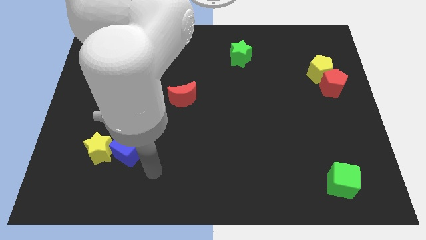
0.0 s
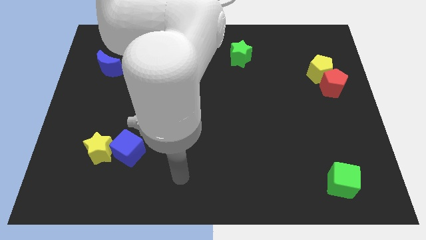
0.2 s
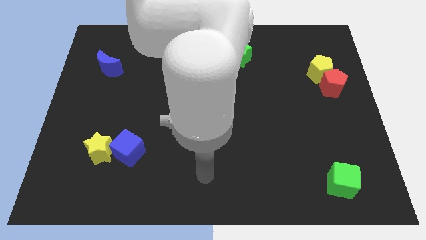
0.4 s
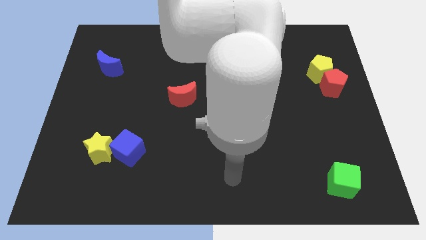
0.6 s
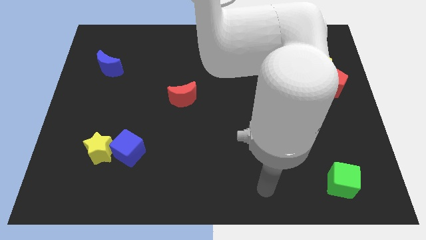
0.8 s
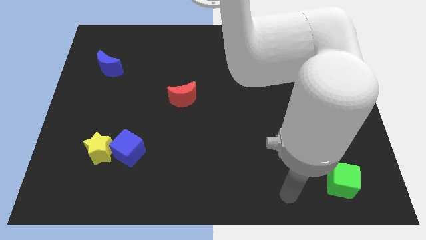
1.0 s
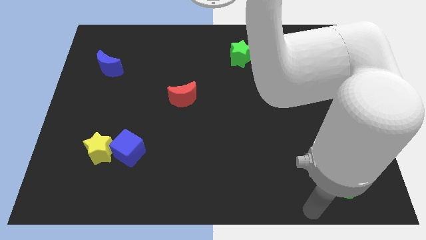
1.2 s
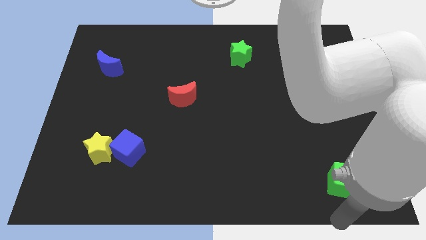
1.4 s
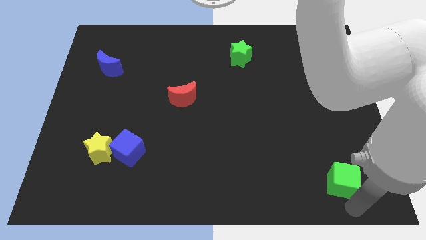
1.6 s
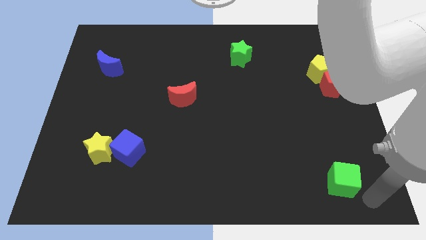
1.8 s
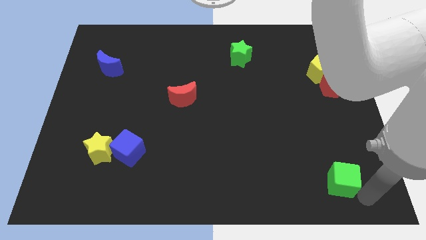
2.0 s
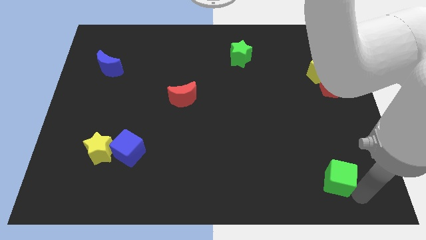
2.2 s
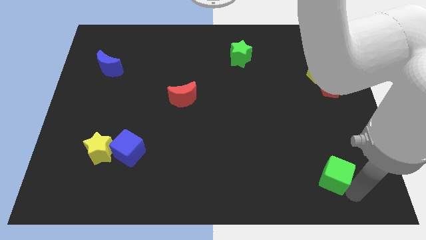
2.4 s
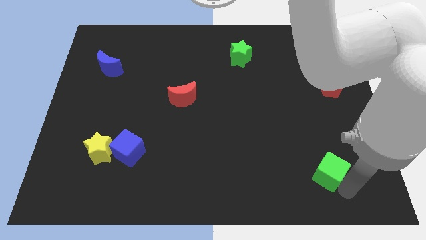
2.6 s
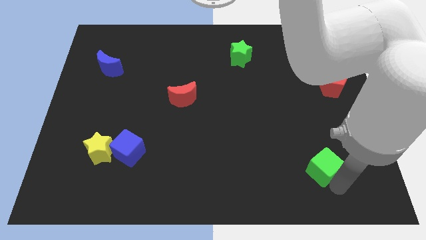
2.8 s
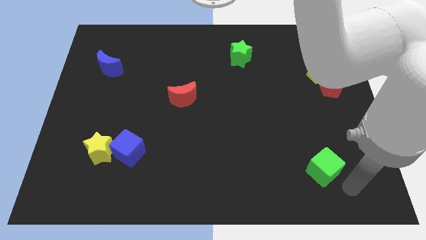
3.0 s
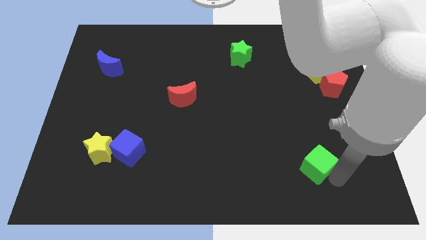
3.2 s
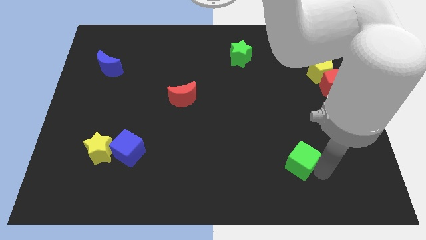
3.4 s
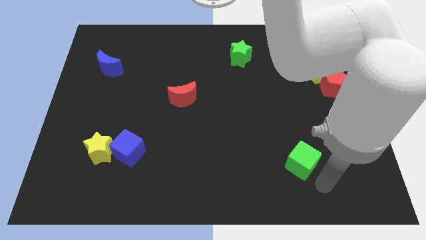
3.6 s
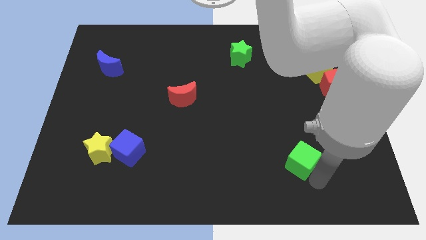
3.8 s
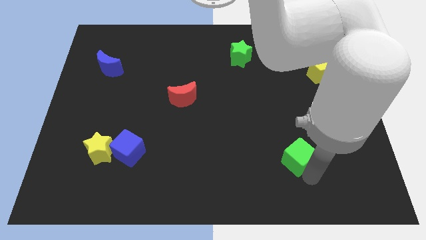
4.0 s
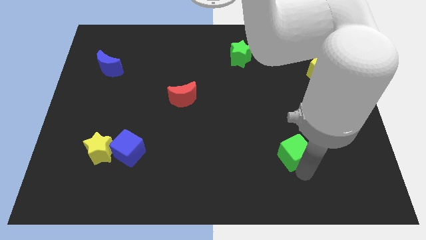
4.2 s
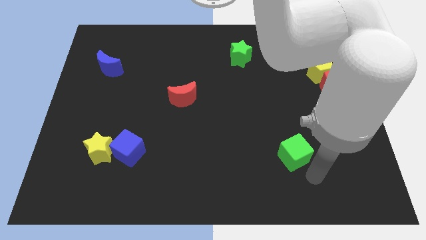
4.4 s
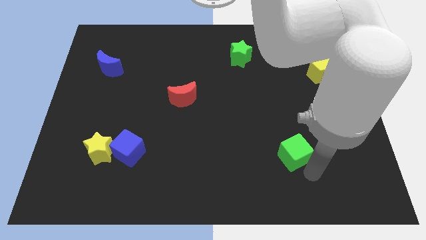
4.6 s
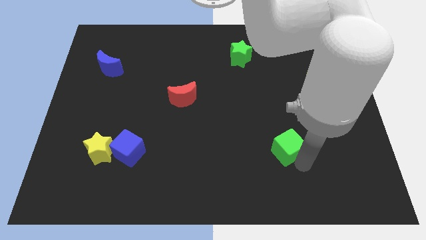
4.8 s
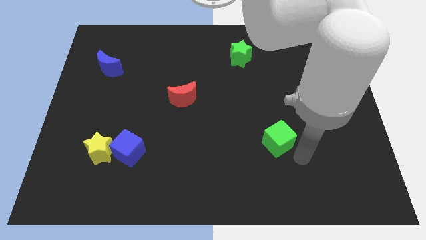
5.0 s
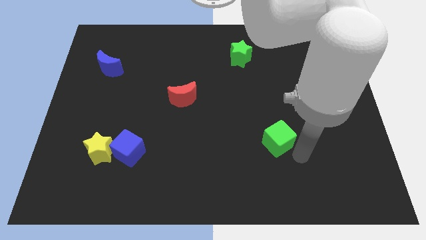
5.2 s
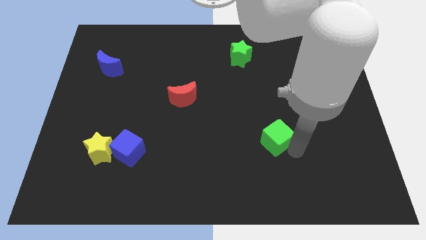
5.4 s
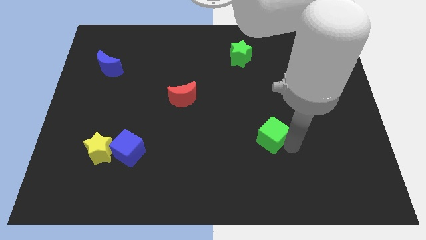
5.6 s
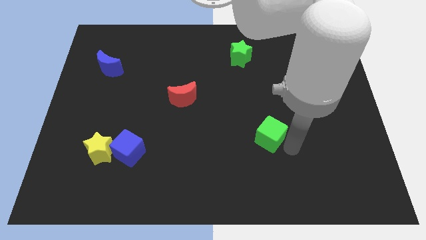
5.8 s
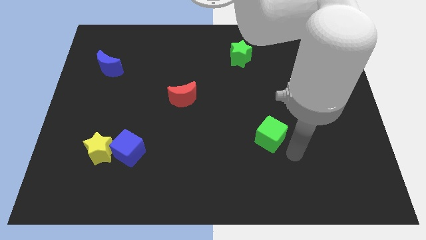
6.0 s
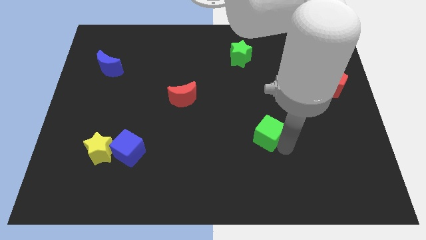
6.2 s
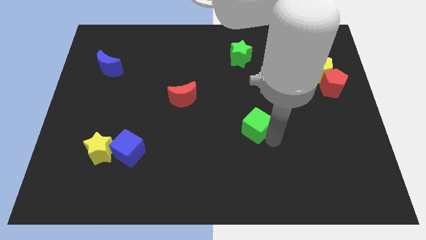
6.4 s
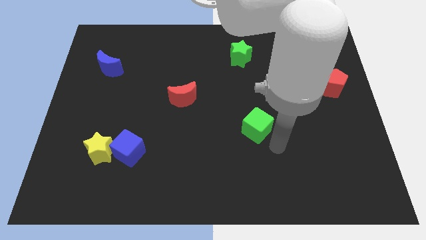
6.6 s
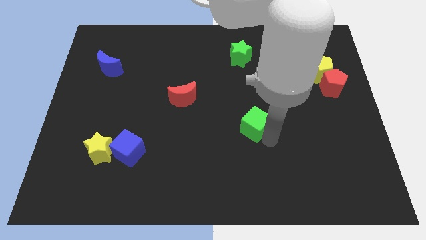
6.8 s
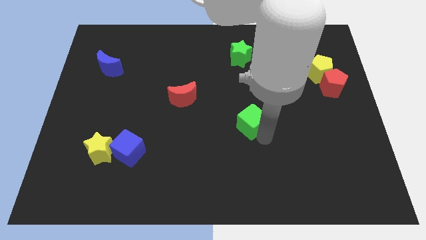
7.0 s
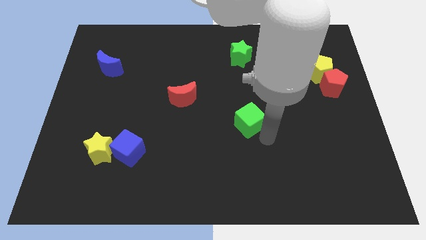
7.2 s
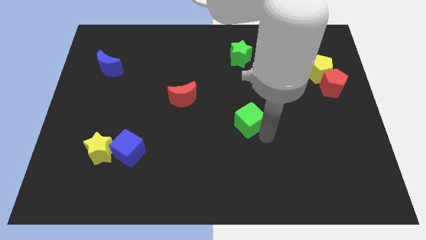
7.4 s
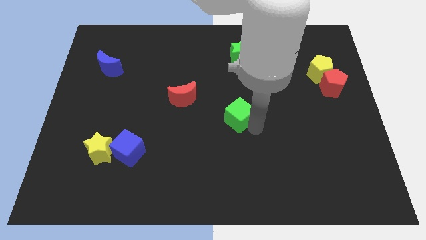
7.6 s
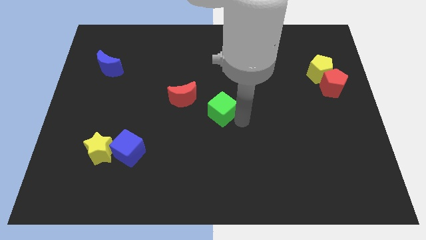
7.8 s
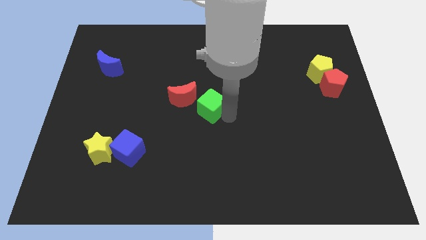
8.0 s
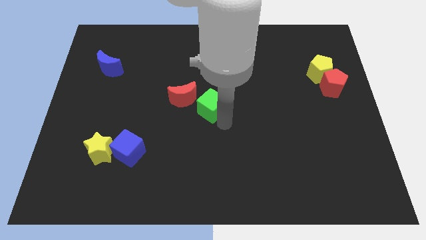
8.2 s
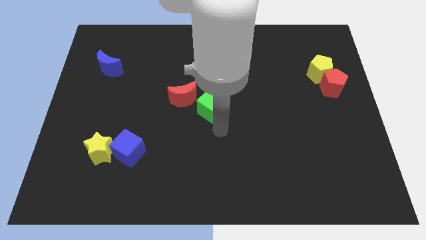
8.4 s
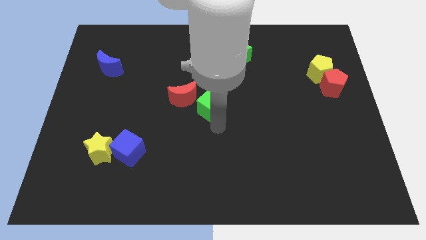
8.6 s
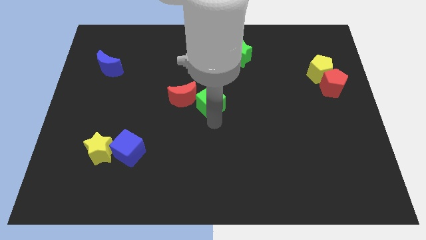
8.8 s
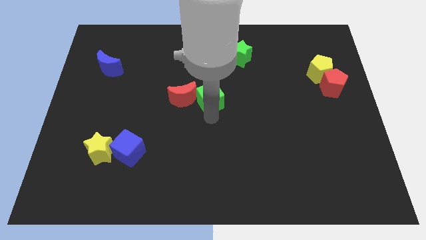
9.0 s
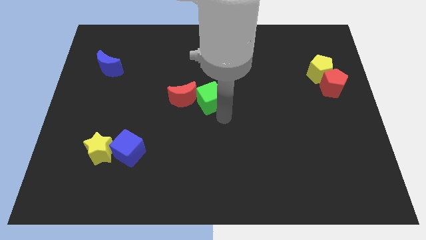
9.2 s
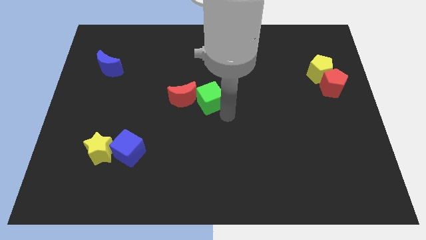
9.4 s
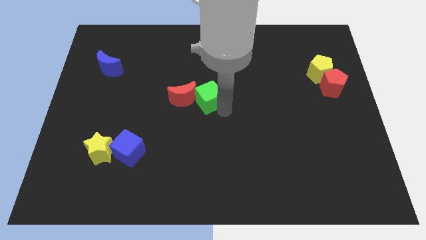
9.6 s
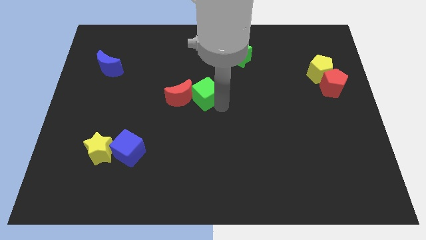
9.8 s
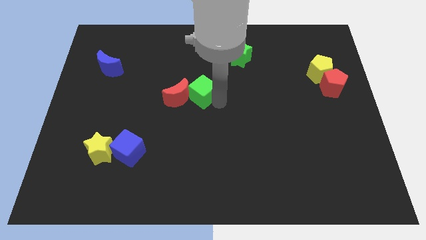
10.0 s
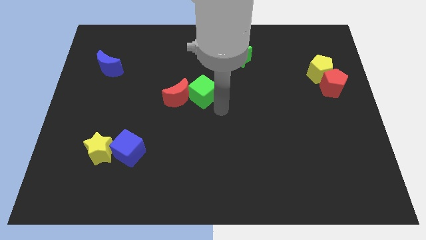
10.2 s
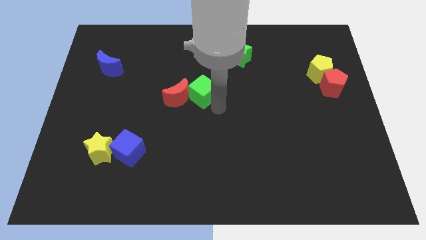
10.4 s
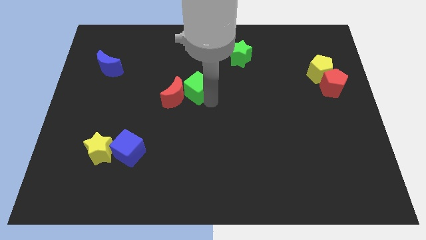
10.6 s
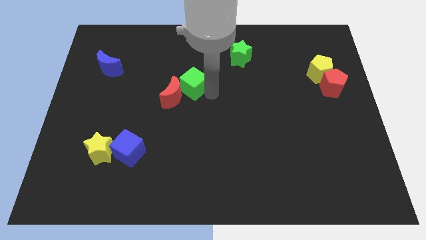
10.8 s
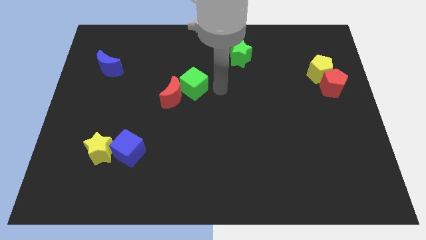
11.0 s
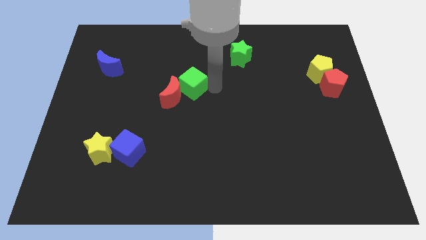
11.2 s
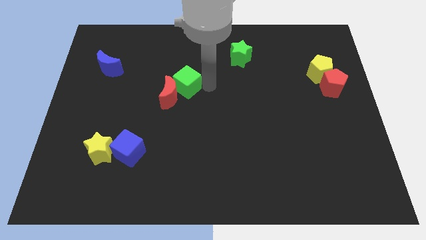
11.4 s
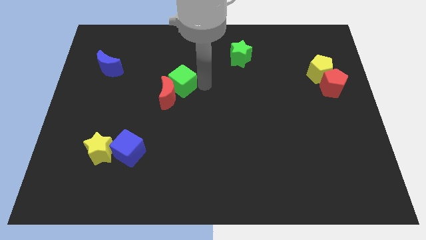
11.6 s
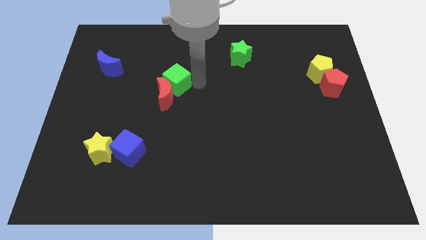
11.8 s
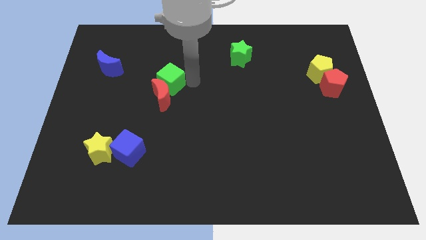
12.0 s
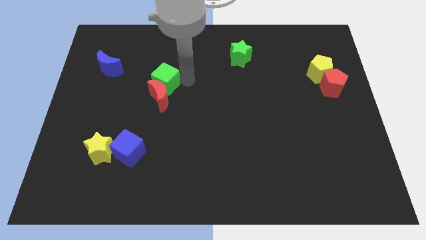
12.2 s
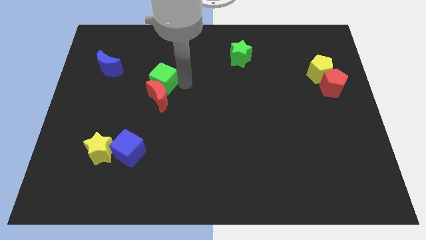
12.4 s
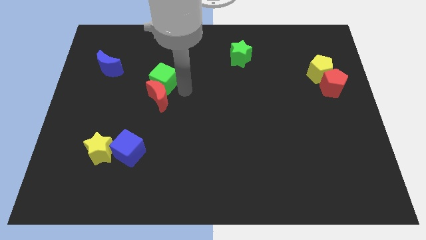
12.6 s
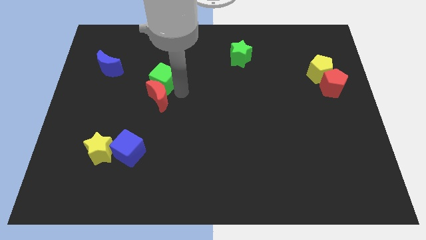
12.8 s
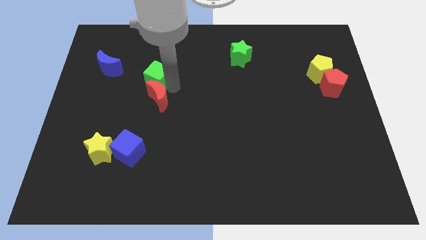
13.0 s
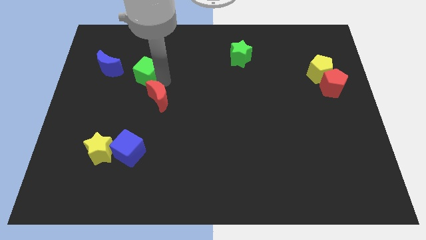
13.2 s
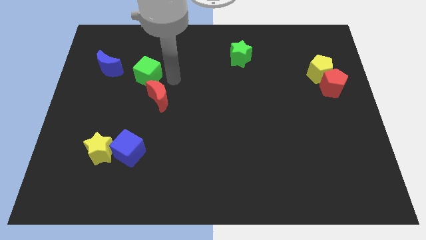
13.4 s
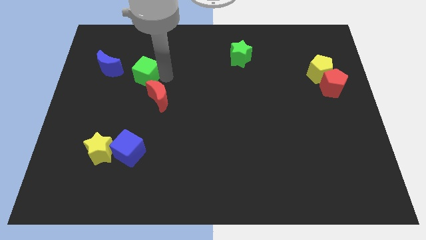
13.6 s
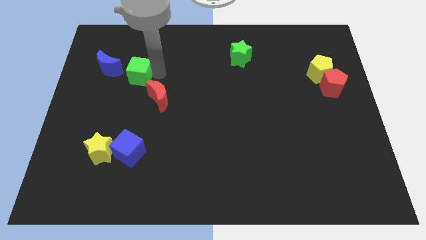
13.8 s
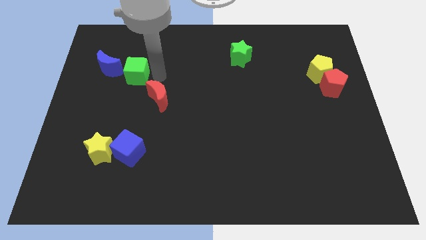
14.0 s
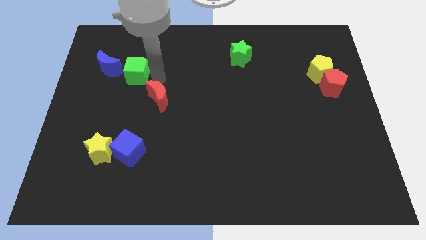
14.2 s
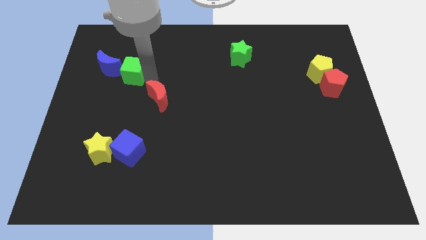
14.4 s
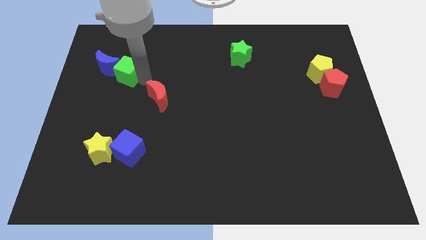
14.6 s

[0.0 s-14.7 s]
move the green cube to the blue moon

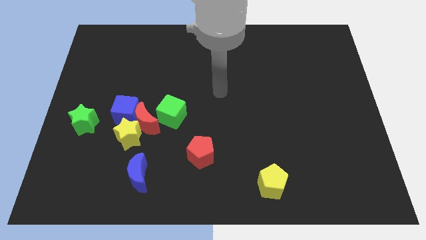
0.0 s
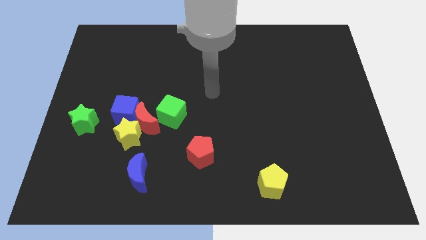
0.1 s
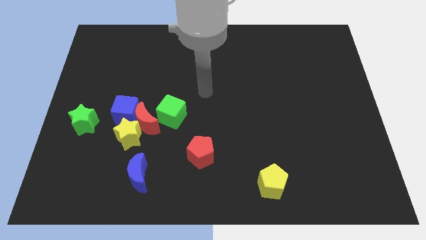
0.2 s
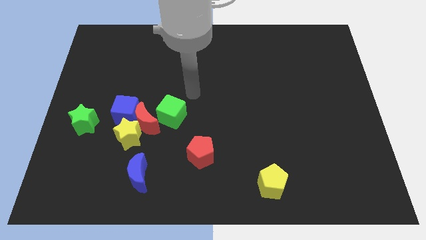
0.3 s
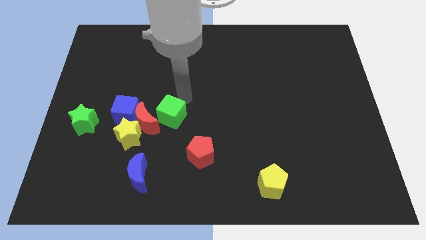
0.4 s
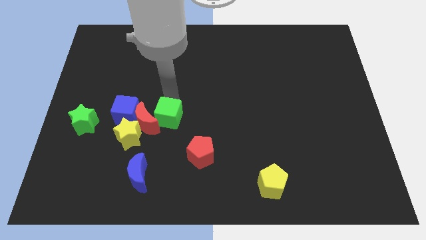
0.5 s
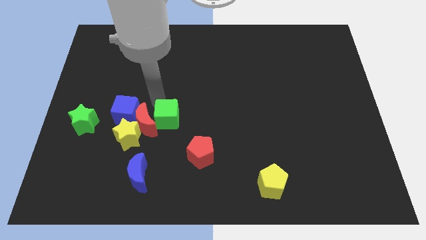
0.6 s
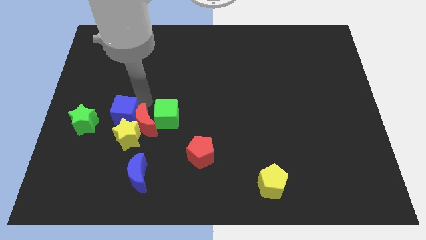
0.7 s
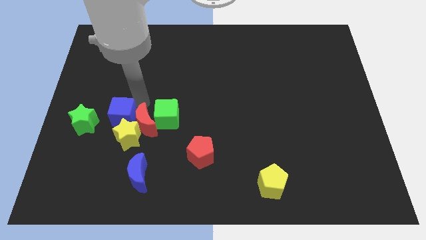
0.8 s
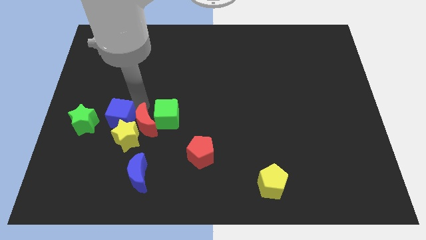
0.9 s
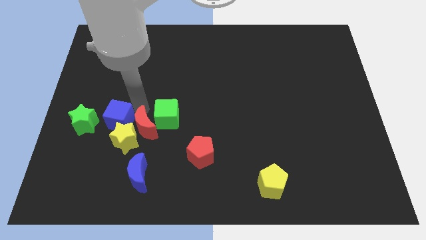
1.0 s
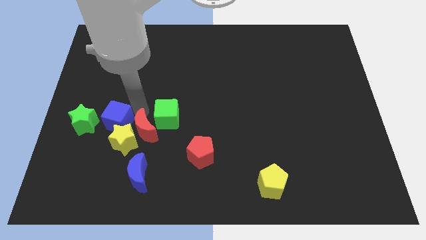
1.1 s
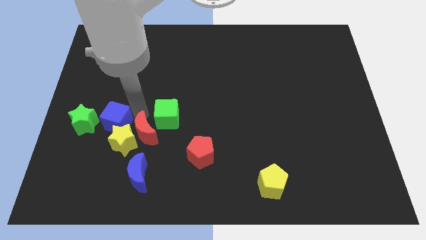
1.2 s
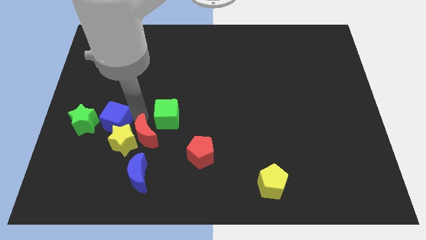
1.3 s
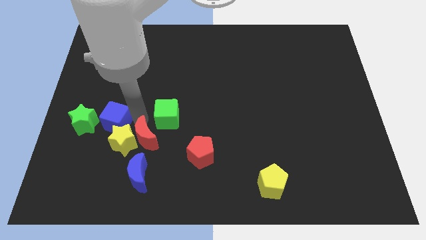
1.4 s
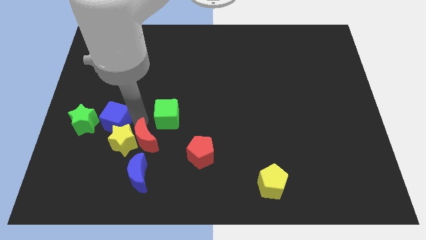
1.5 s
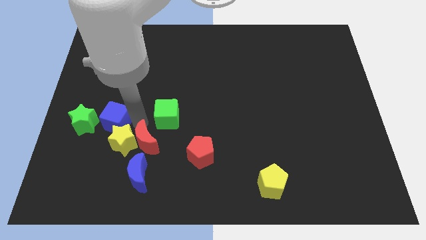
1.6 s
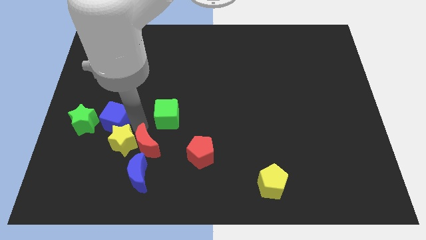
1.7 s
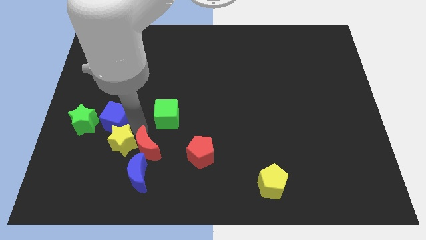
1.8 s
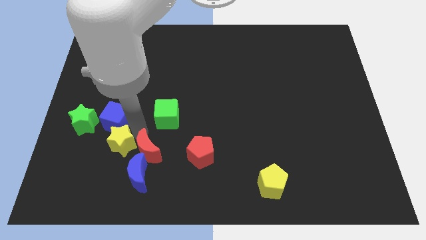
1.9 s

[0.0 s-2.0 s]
push the red moon towards the blue moon
